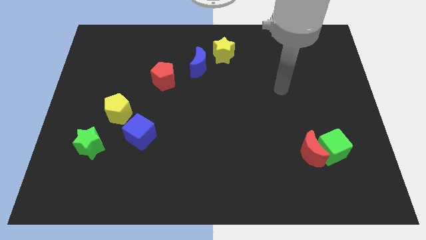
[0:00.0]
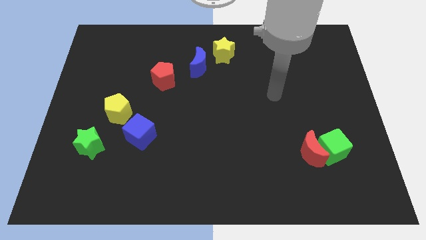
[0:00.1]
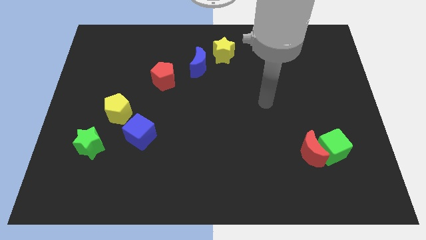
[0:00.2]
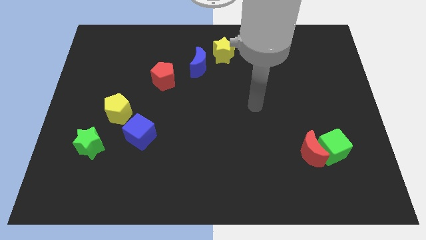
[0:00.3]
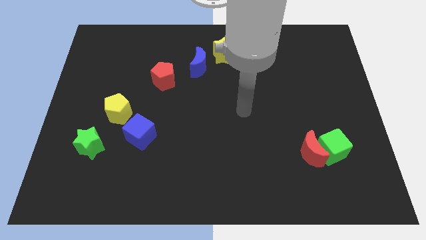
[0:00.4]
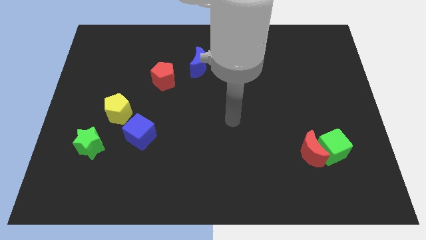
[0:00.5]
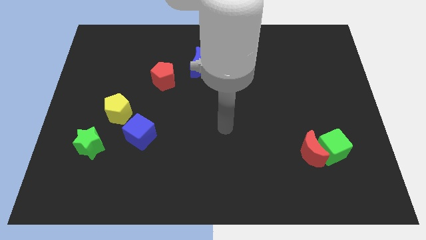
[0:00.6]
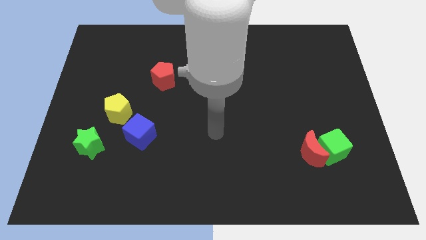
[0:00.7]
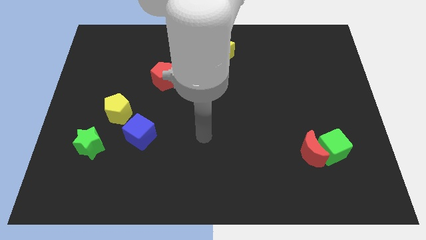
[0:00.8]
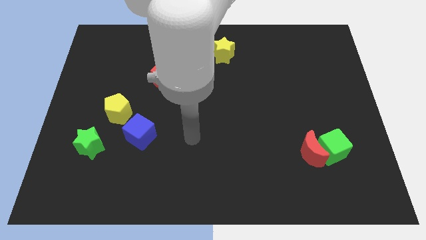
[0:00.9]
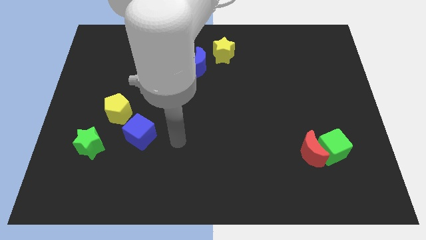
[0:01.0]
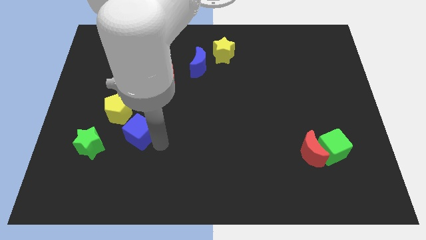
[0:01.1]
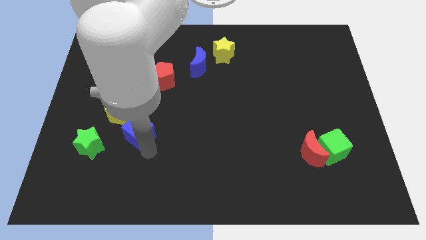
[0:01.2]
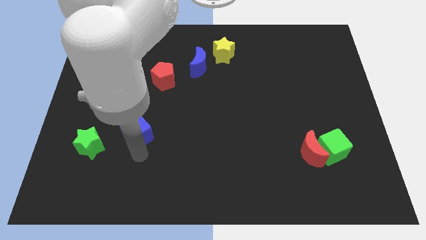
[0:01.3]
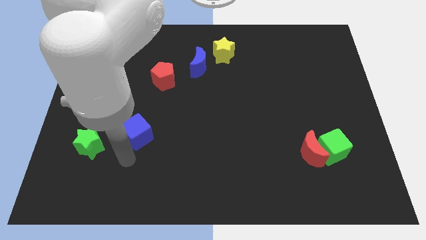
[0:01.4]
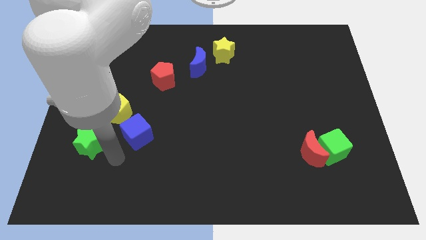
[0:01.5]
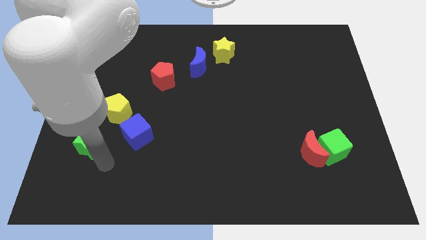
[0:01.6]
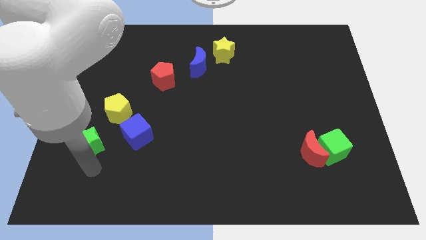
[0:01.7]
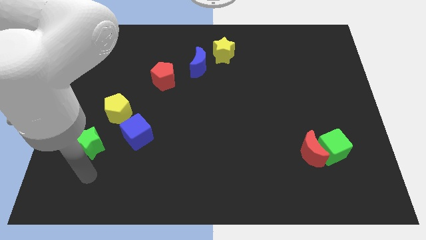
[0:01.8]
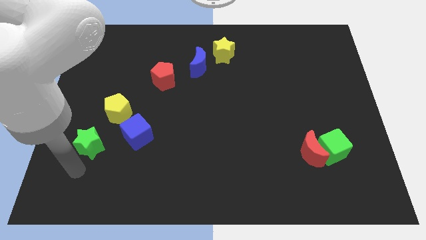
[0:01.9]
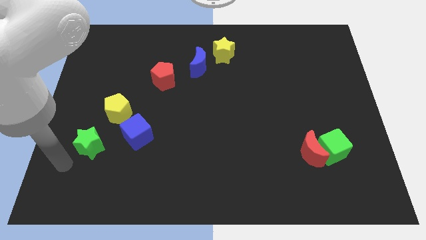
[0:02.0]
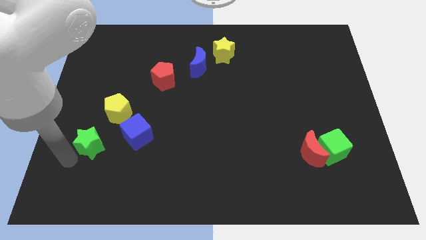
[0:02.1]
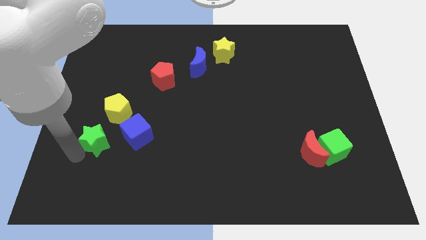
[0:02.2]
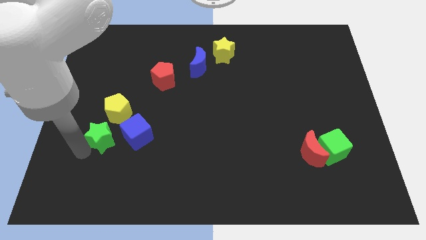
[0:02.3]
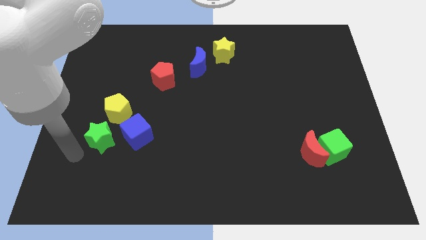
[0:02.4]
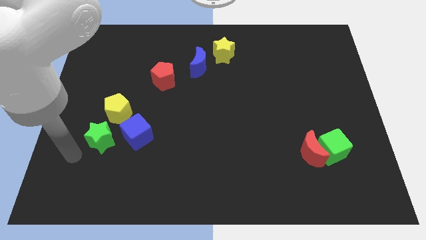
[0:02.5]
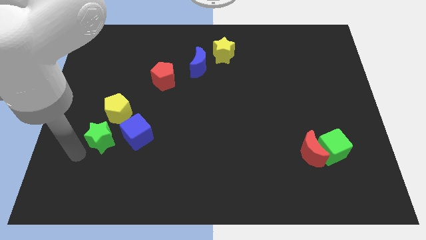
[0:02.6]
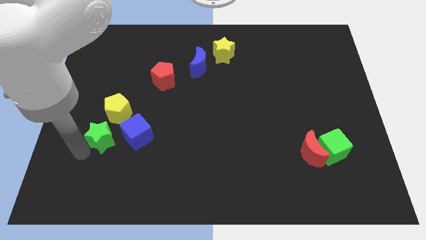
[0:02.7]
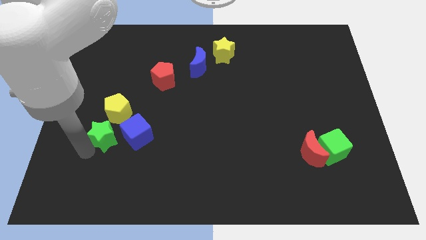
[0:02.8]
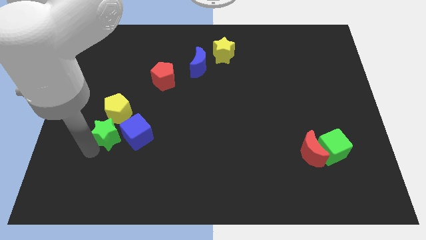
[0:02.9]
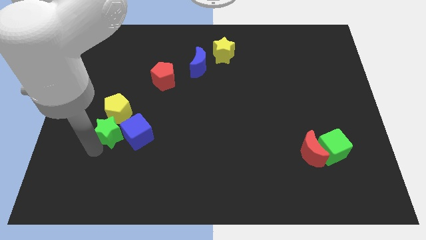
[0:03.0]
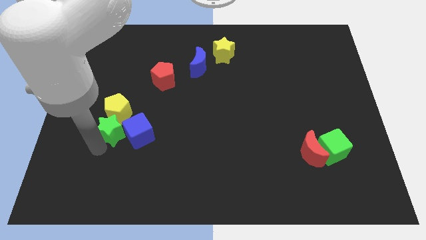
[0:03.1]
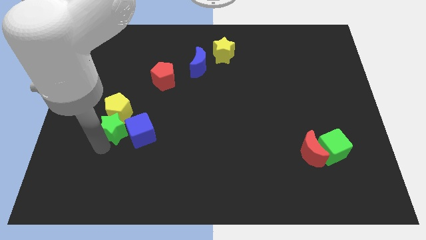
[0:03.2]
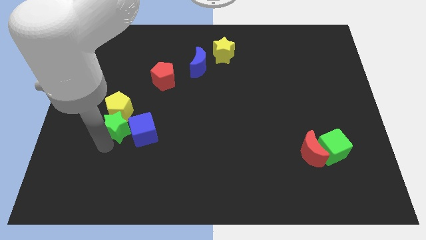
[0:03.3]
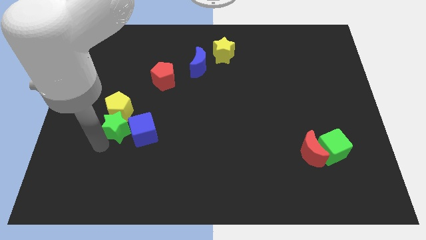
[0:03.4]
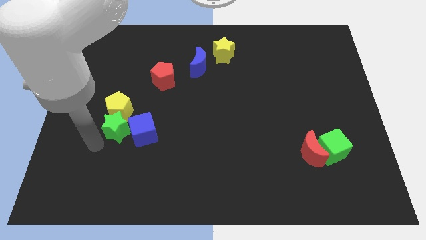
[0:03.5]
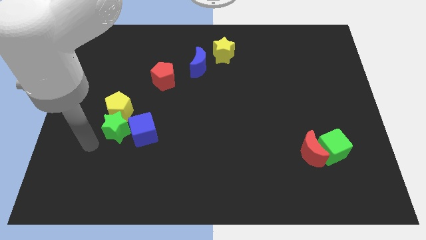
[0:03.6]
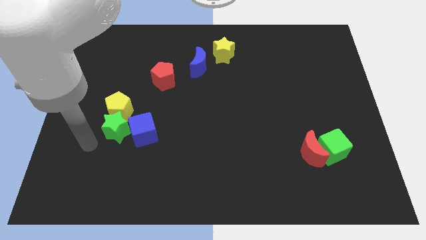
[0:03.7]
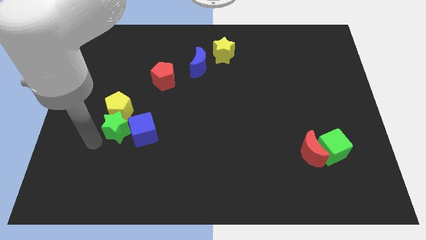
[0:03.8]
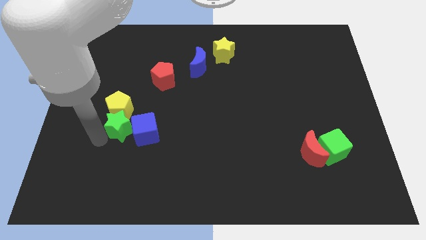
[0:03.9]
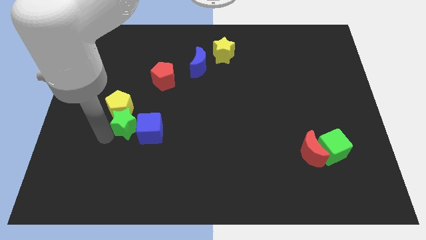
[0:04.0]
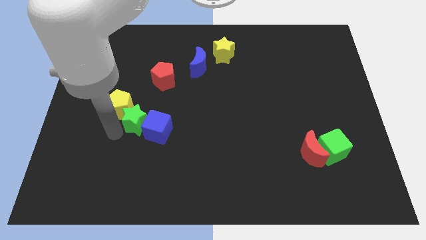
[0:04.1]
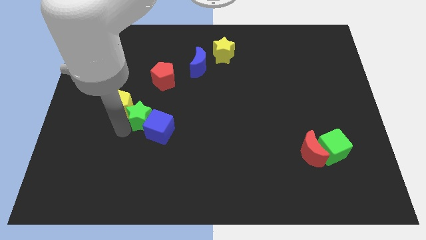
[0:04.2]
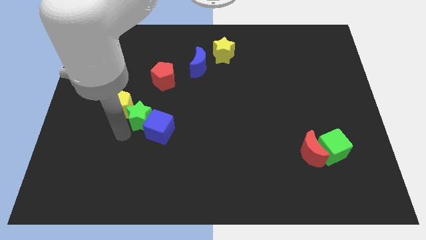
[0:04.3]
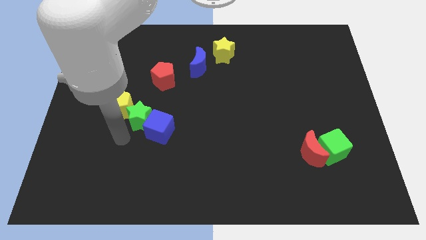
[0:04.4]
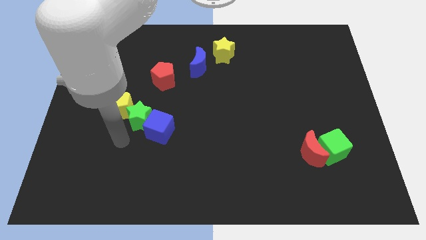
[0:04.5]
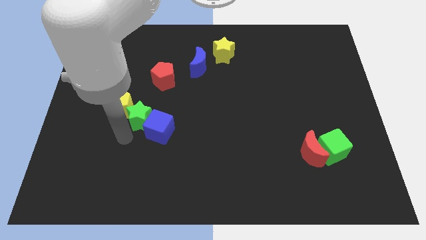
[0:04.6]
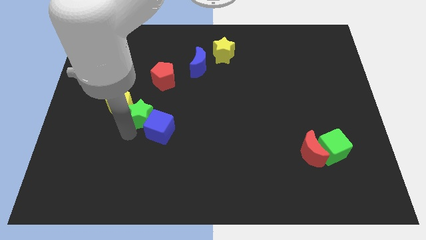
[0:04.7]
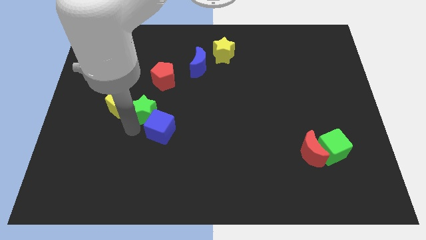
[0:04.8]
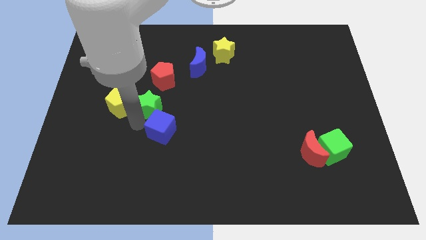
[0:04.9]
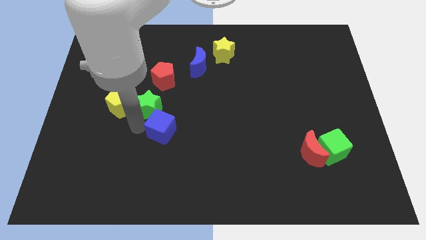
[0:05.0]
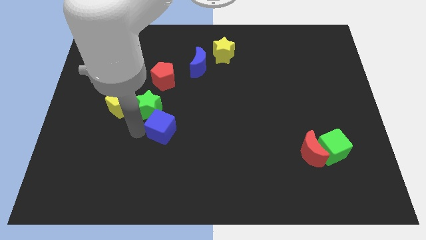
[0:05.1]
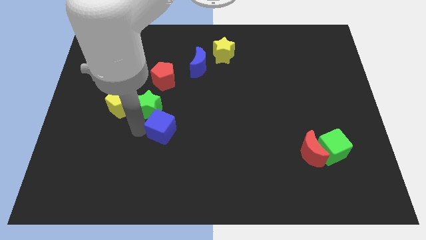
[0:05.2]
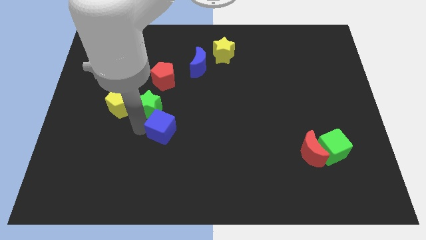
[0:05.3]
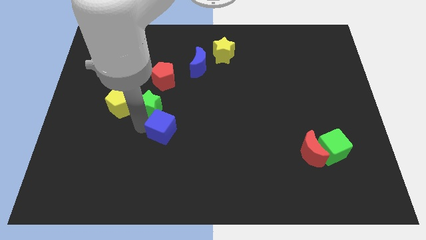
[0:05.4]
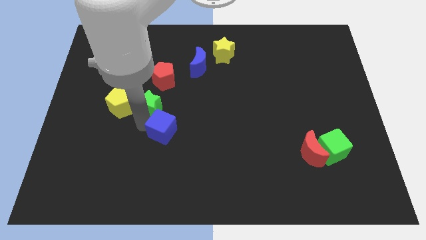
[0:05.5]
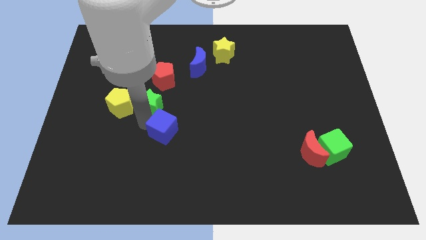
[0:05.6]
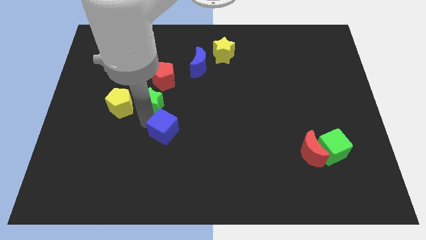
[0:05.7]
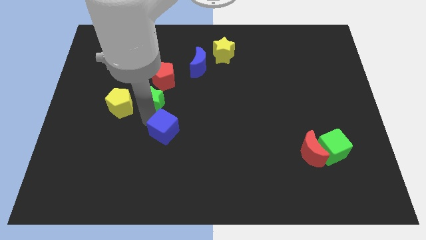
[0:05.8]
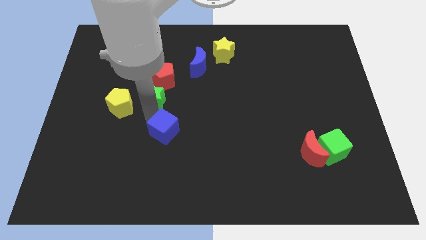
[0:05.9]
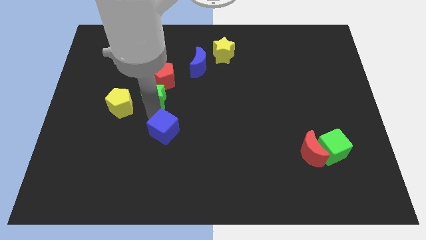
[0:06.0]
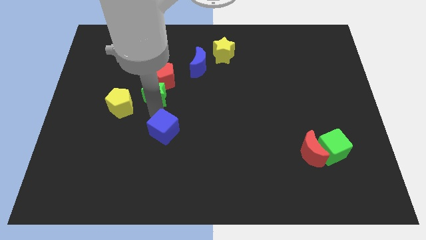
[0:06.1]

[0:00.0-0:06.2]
push the green star next to the red pentagon
